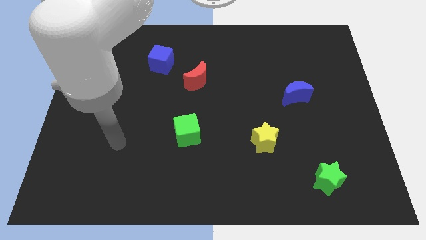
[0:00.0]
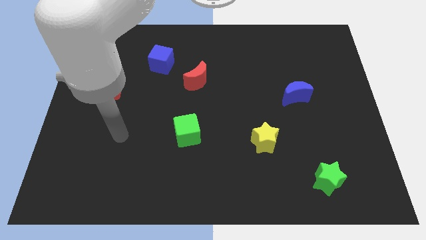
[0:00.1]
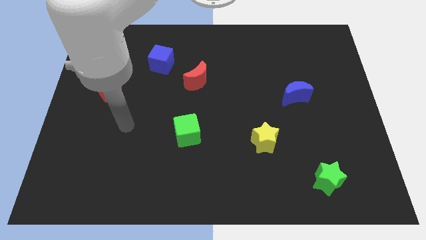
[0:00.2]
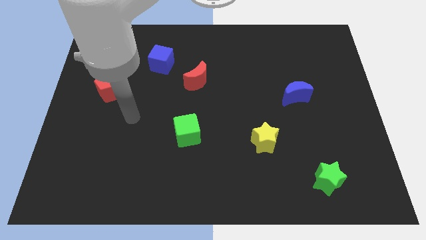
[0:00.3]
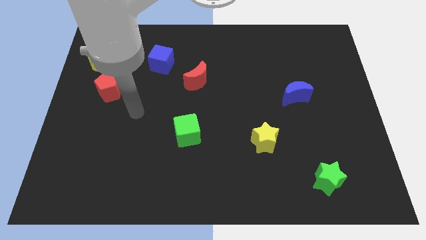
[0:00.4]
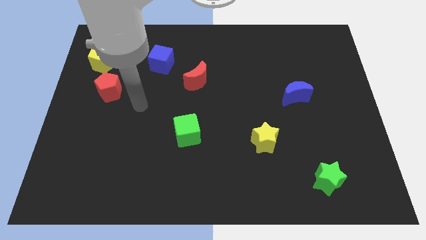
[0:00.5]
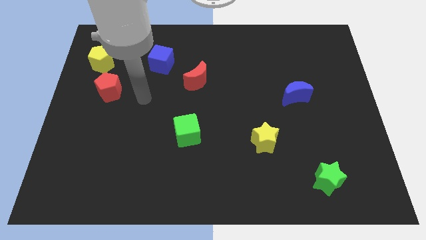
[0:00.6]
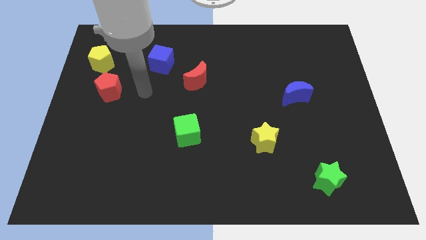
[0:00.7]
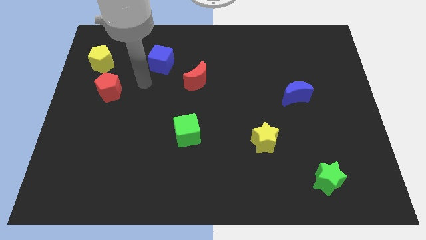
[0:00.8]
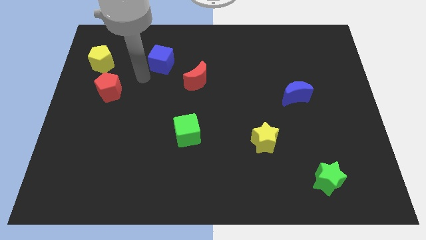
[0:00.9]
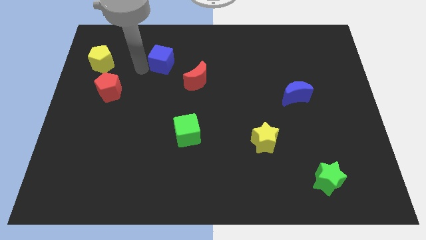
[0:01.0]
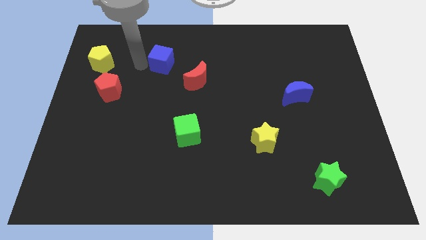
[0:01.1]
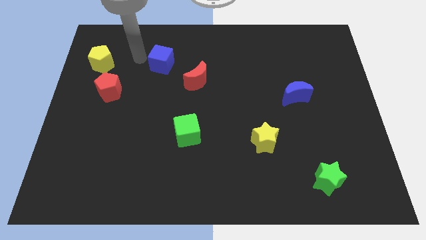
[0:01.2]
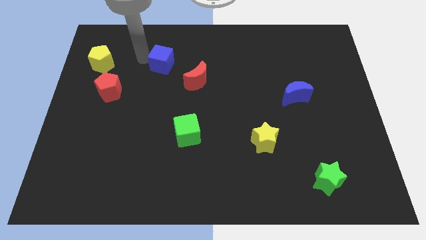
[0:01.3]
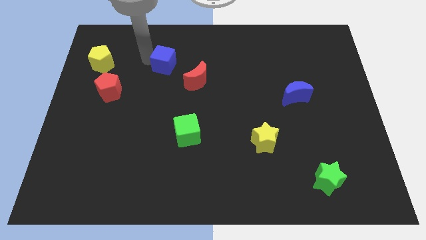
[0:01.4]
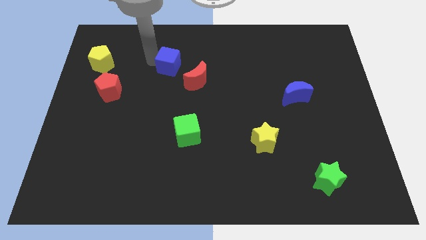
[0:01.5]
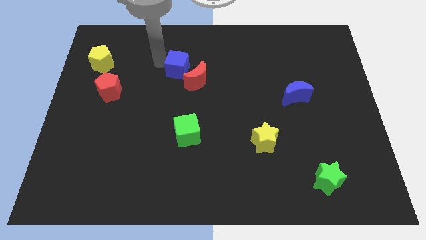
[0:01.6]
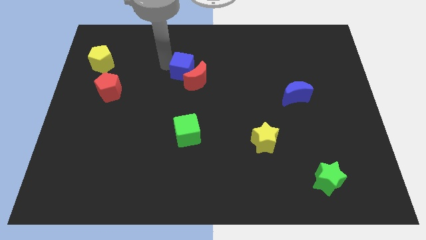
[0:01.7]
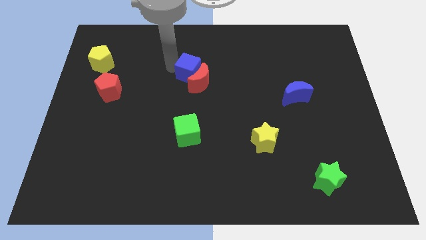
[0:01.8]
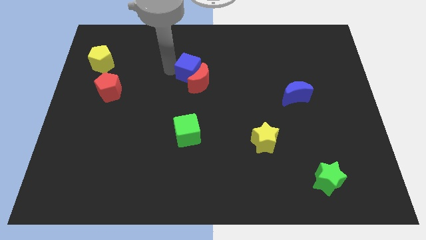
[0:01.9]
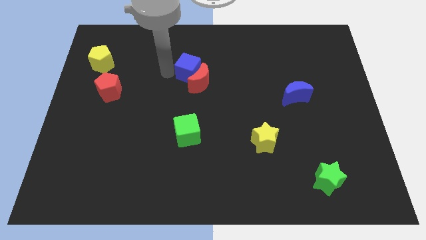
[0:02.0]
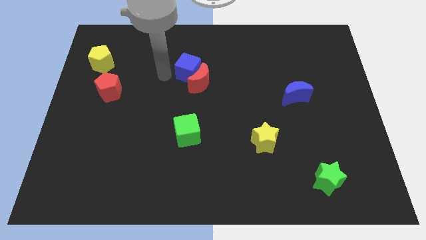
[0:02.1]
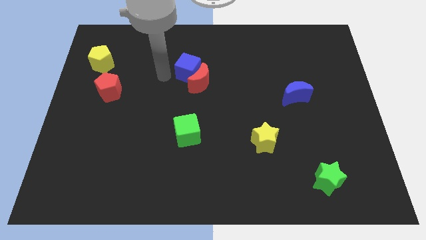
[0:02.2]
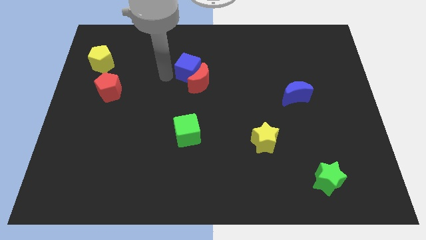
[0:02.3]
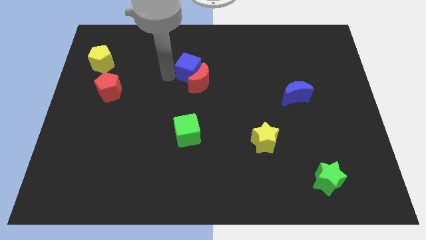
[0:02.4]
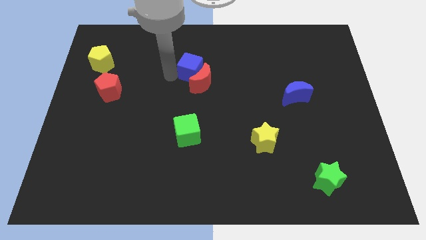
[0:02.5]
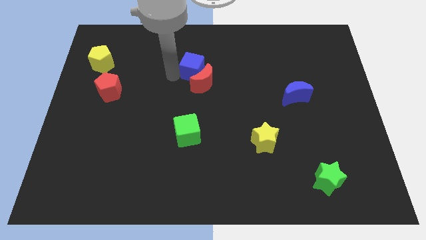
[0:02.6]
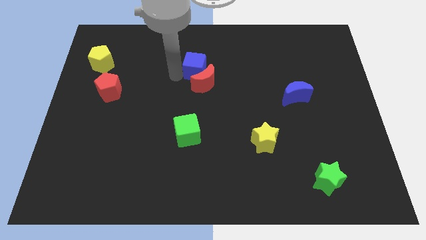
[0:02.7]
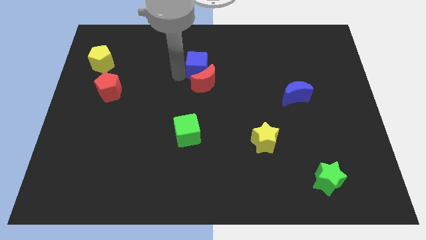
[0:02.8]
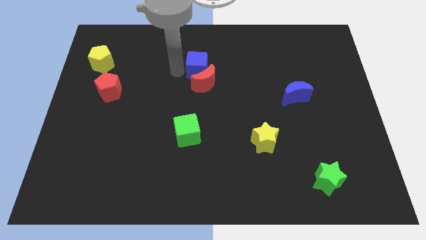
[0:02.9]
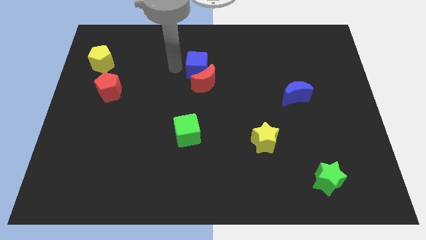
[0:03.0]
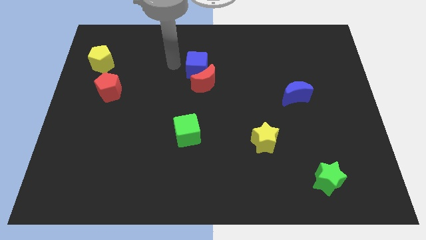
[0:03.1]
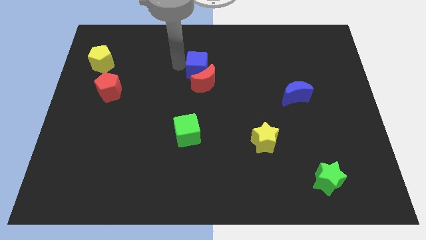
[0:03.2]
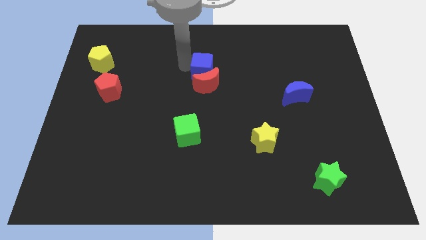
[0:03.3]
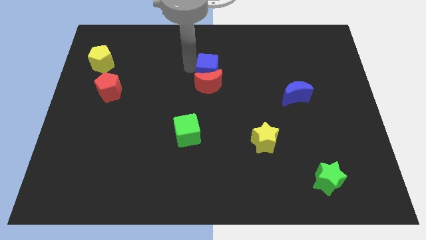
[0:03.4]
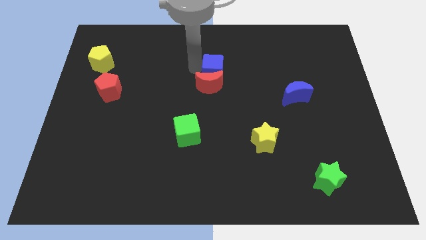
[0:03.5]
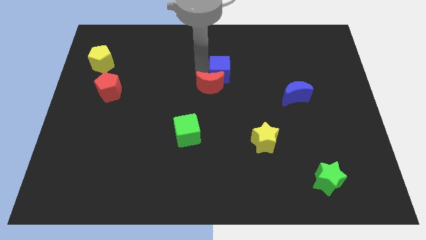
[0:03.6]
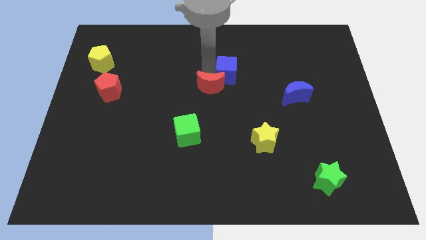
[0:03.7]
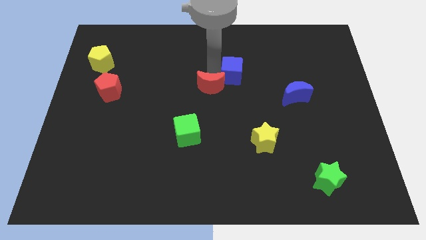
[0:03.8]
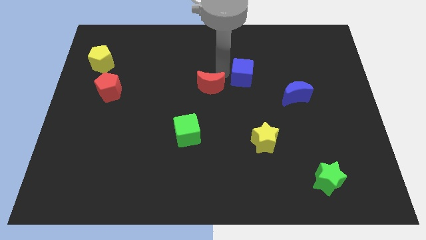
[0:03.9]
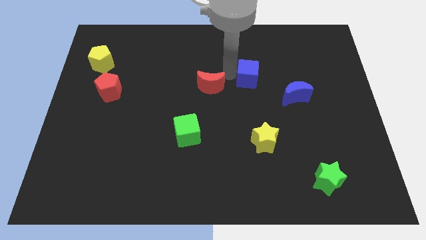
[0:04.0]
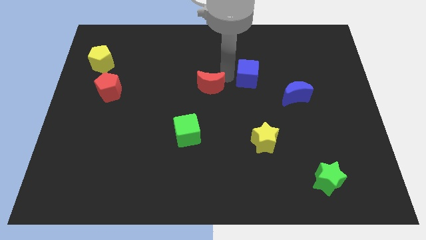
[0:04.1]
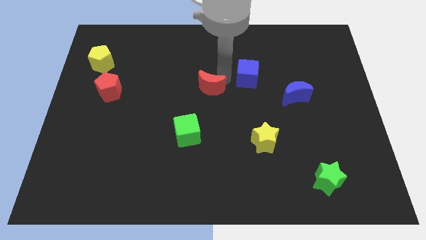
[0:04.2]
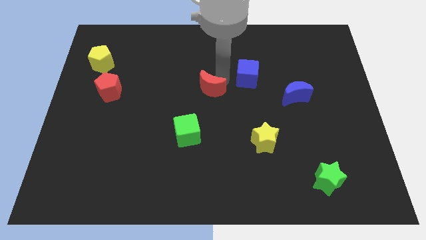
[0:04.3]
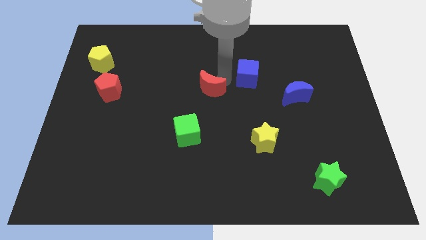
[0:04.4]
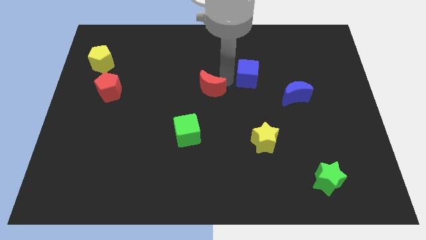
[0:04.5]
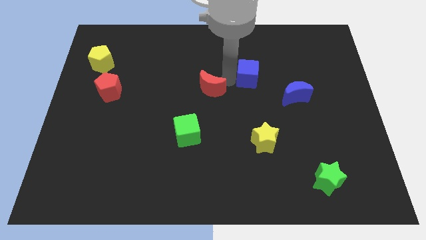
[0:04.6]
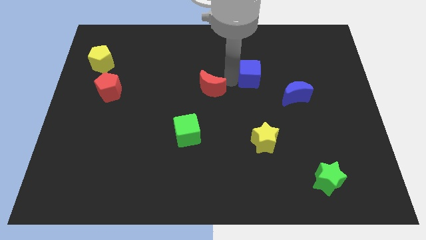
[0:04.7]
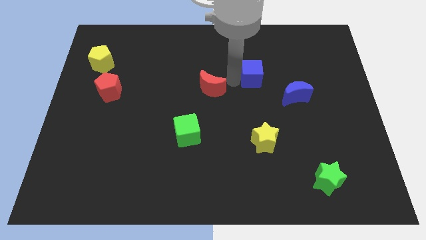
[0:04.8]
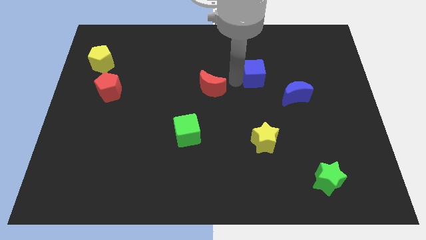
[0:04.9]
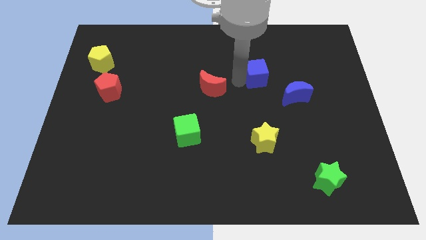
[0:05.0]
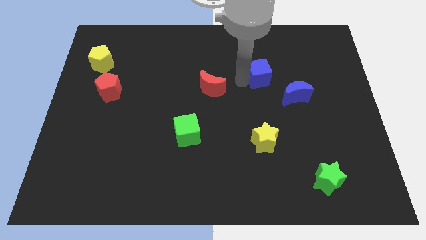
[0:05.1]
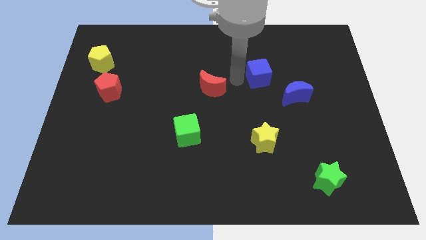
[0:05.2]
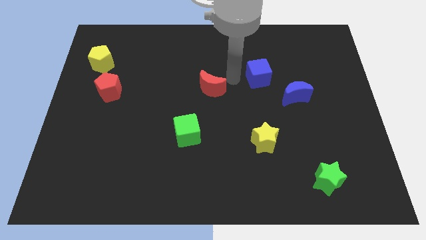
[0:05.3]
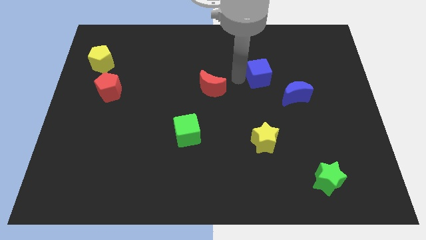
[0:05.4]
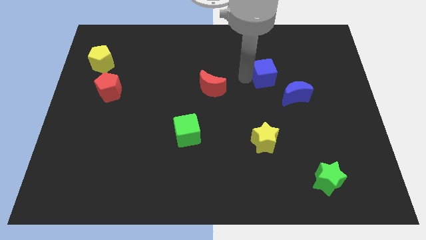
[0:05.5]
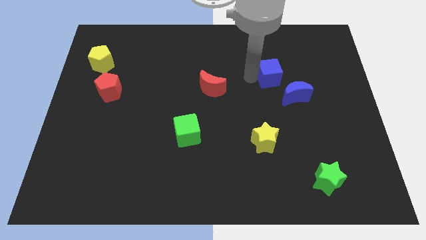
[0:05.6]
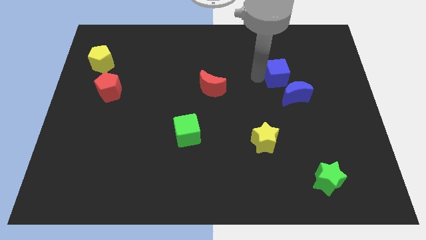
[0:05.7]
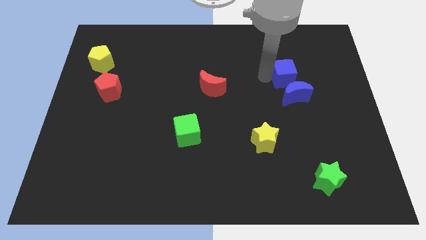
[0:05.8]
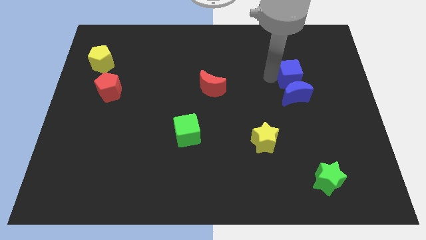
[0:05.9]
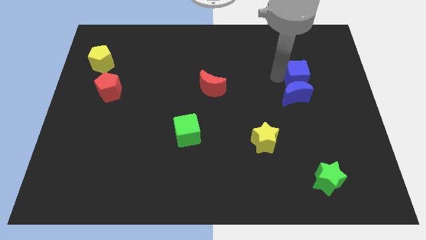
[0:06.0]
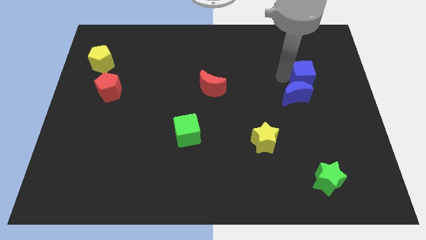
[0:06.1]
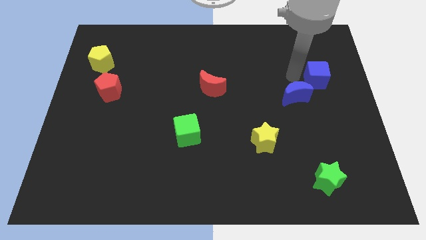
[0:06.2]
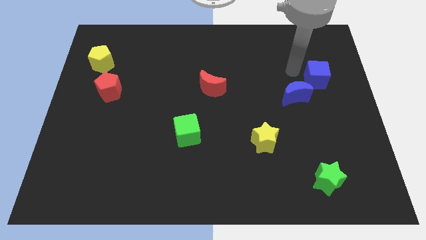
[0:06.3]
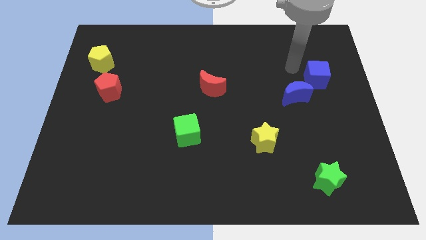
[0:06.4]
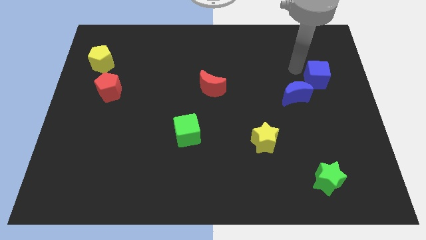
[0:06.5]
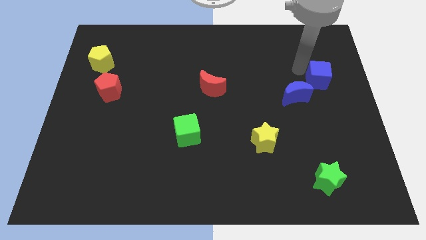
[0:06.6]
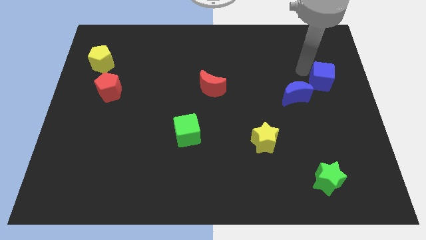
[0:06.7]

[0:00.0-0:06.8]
slide the blue cube to the center right
